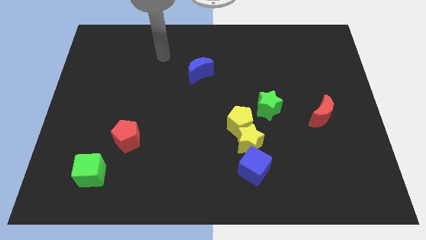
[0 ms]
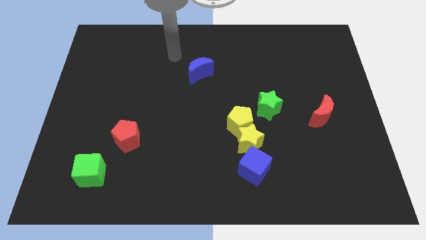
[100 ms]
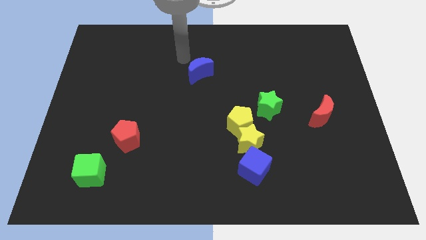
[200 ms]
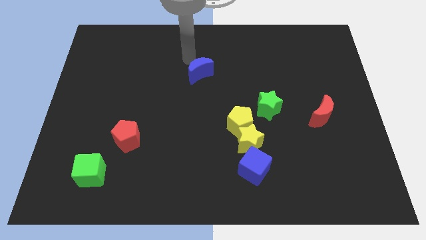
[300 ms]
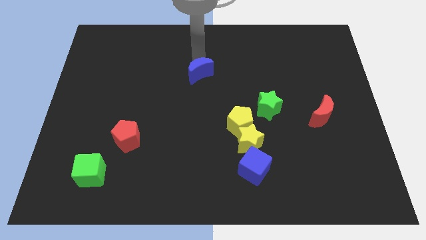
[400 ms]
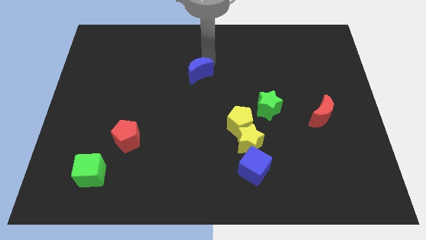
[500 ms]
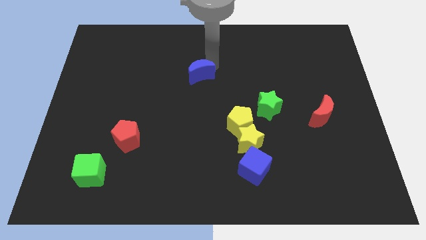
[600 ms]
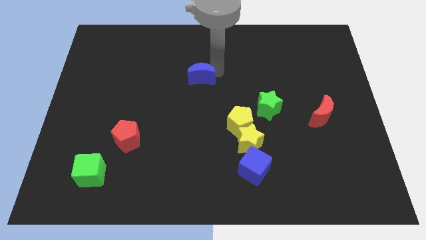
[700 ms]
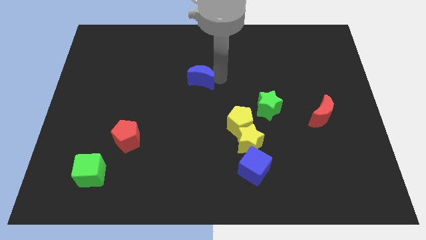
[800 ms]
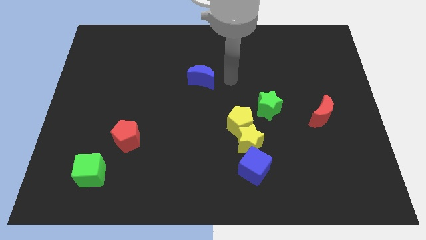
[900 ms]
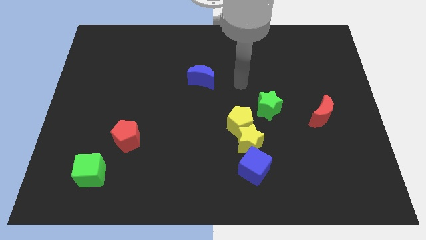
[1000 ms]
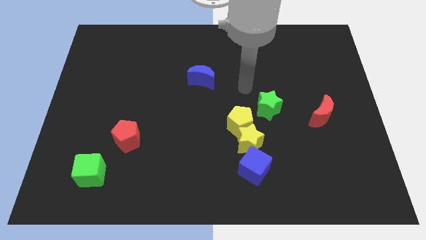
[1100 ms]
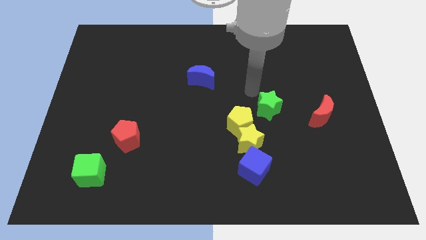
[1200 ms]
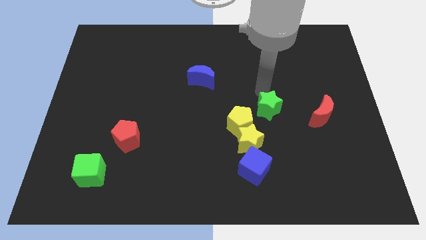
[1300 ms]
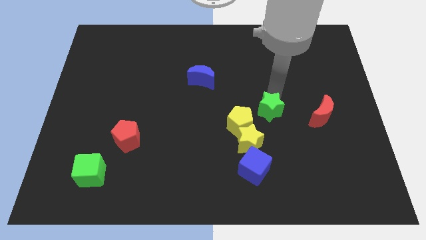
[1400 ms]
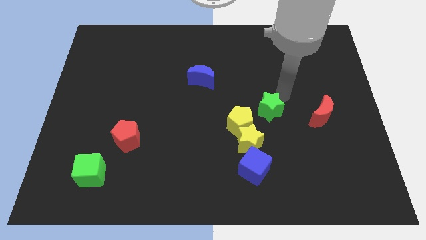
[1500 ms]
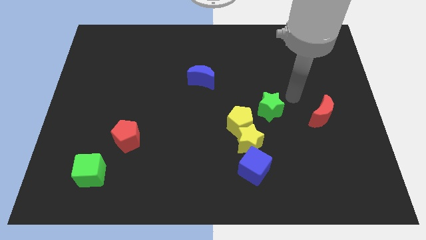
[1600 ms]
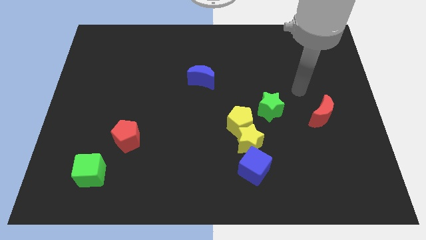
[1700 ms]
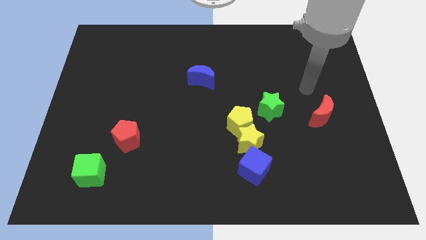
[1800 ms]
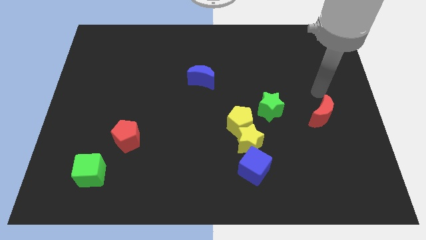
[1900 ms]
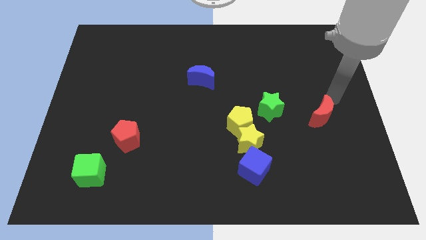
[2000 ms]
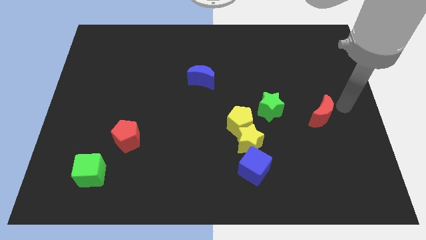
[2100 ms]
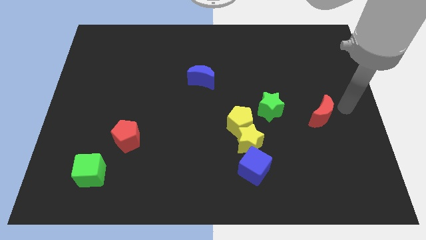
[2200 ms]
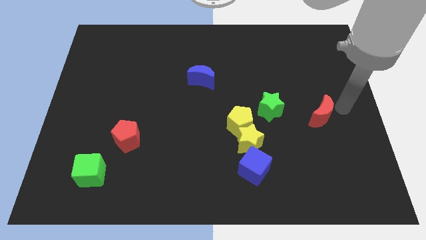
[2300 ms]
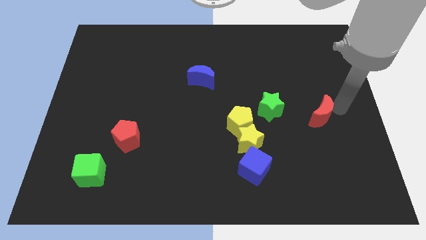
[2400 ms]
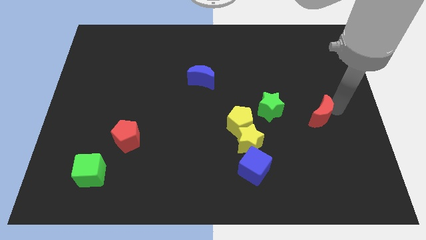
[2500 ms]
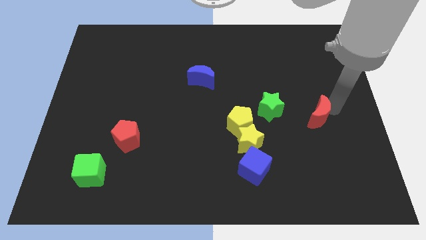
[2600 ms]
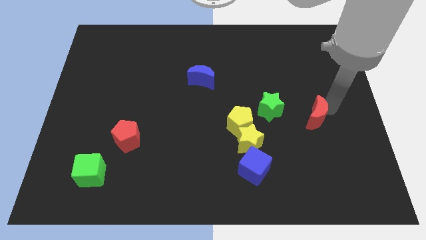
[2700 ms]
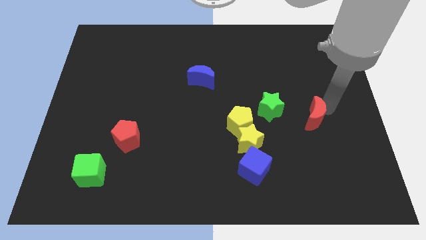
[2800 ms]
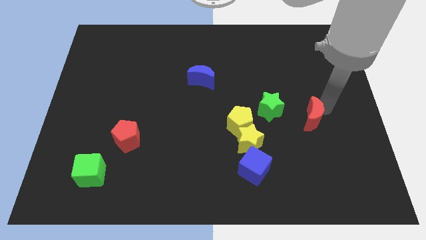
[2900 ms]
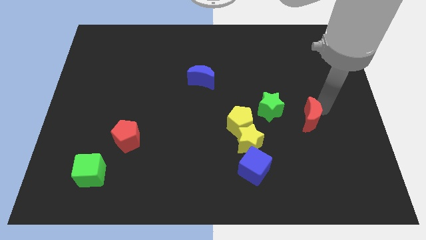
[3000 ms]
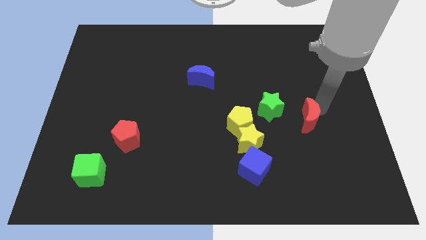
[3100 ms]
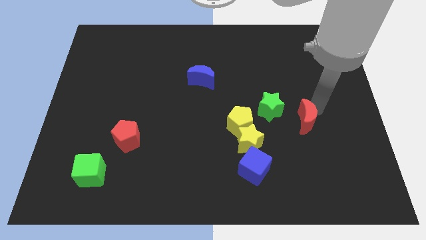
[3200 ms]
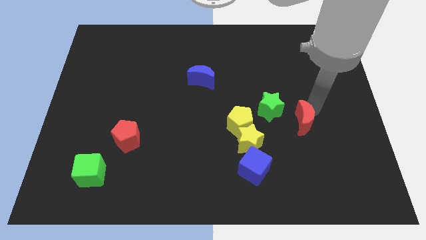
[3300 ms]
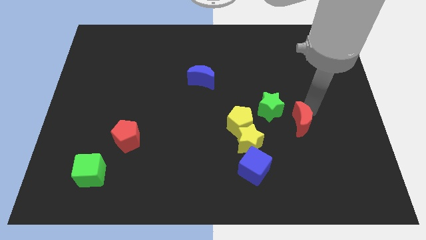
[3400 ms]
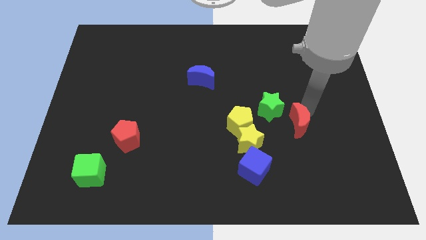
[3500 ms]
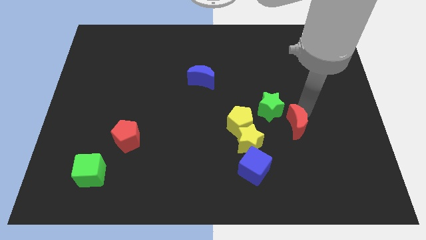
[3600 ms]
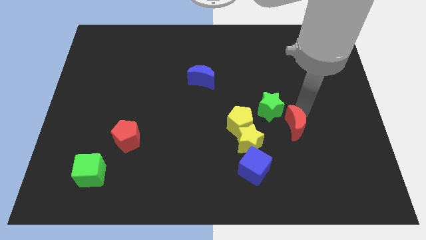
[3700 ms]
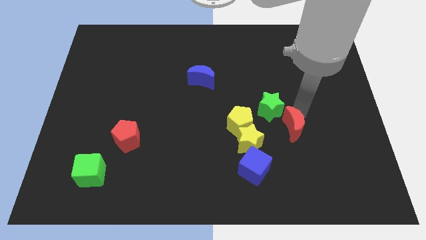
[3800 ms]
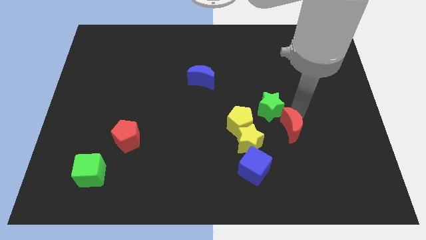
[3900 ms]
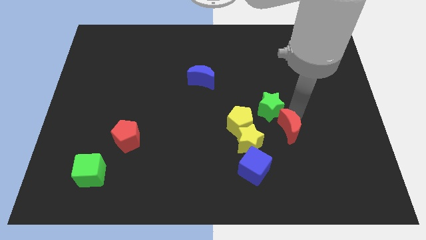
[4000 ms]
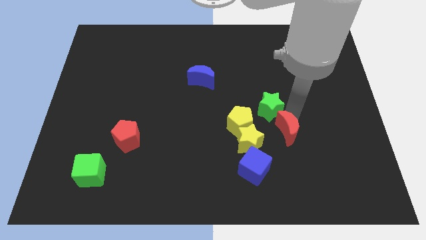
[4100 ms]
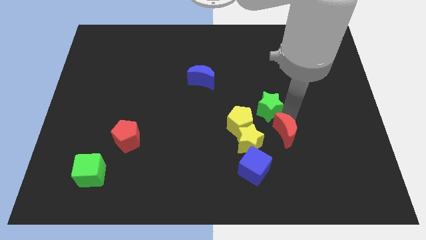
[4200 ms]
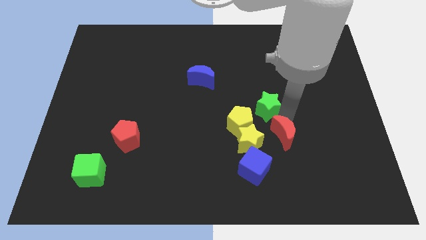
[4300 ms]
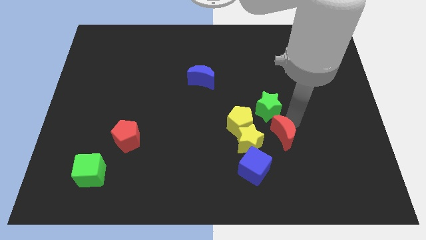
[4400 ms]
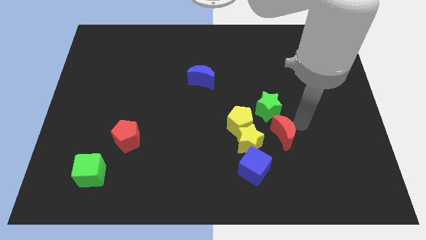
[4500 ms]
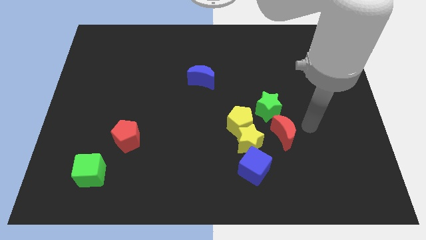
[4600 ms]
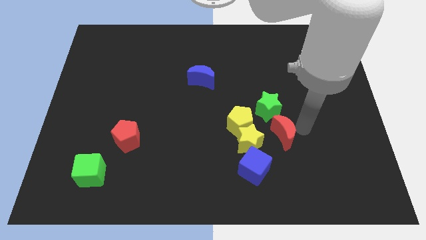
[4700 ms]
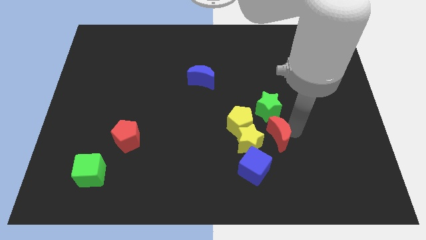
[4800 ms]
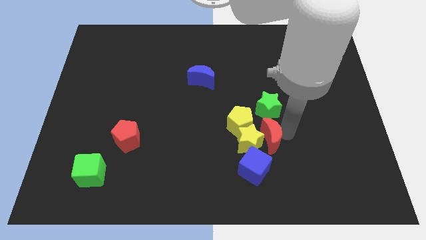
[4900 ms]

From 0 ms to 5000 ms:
put the red moon close to the yellow star

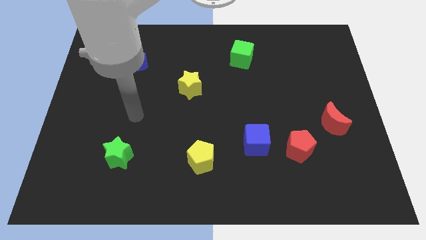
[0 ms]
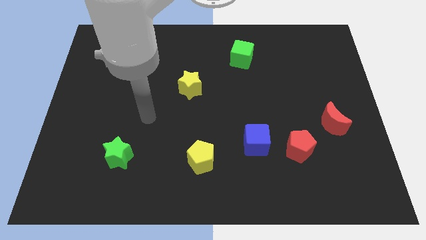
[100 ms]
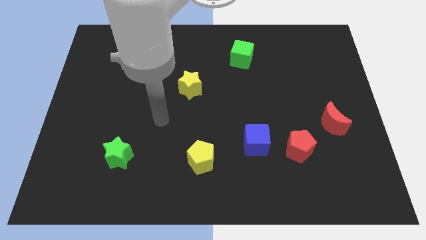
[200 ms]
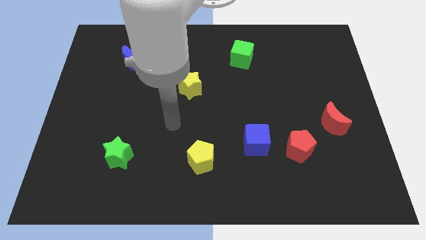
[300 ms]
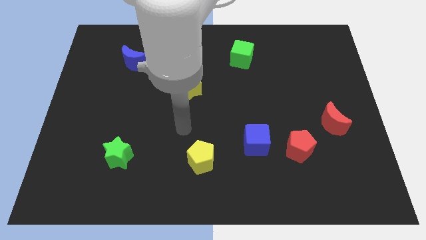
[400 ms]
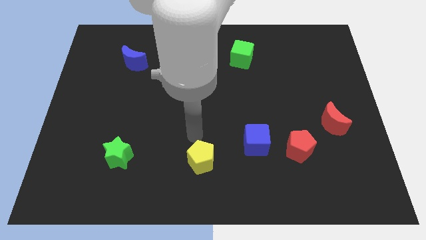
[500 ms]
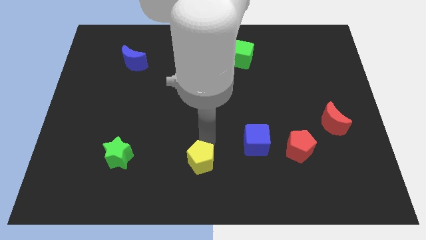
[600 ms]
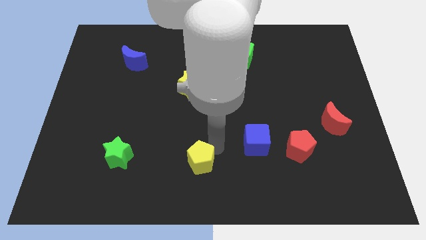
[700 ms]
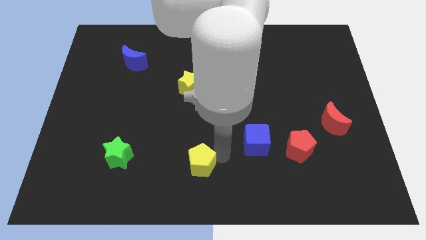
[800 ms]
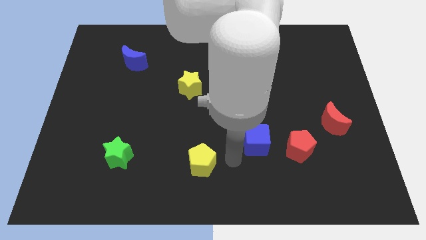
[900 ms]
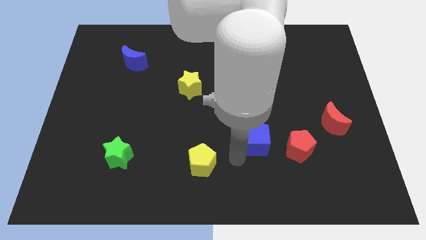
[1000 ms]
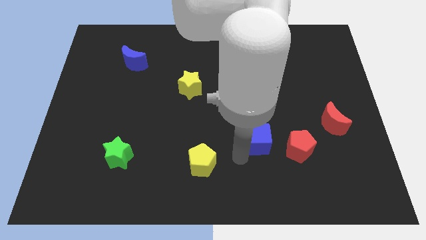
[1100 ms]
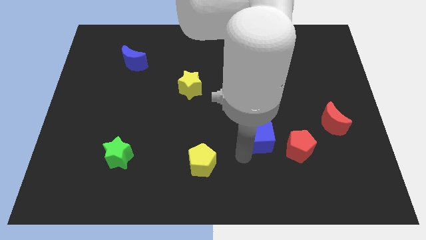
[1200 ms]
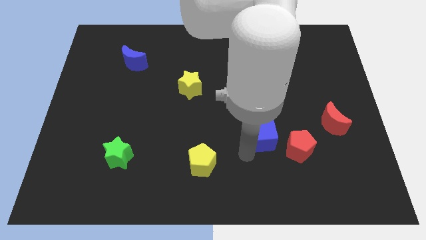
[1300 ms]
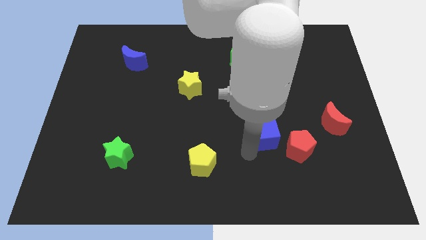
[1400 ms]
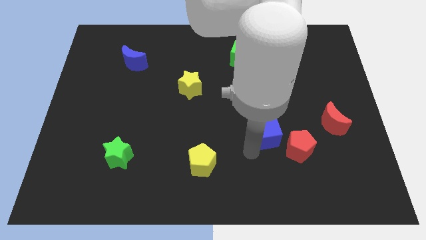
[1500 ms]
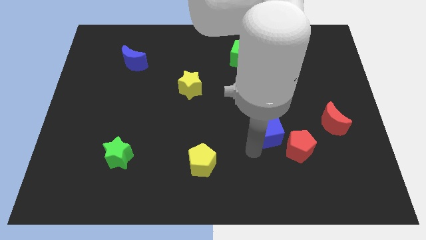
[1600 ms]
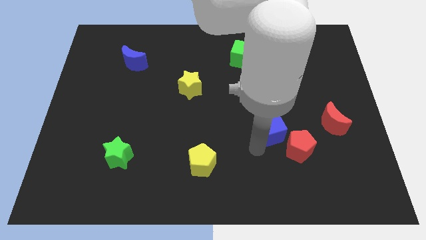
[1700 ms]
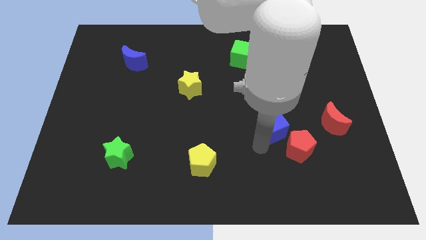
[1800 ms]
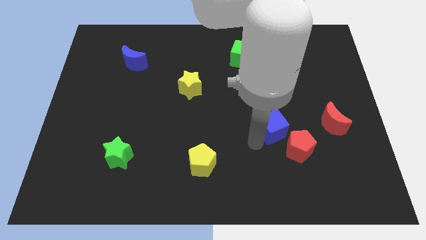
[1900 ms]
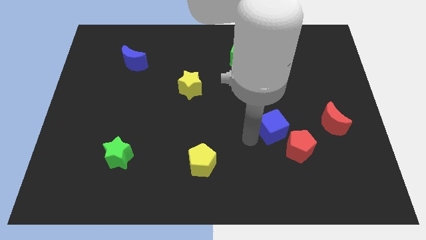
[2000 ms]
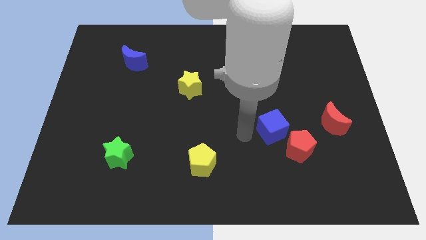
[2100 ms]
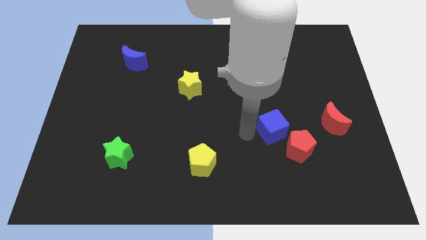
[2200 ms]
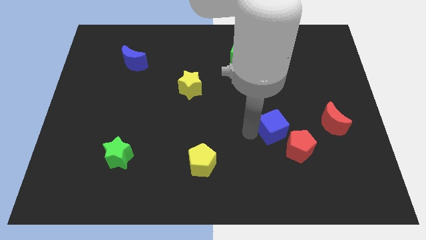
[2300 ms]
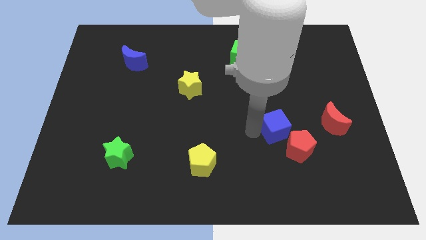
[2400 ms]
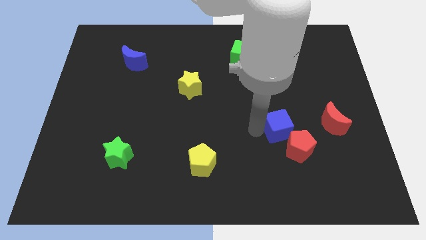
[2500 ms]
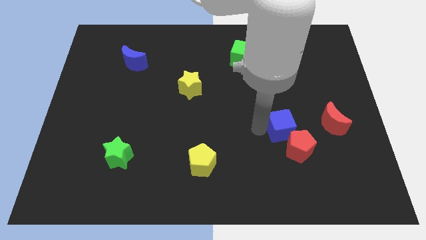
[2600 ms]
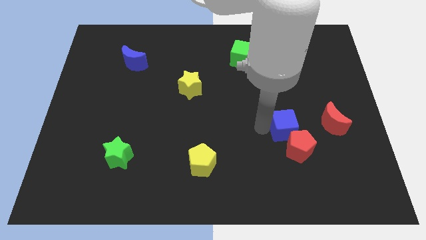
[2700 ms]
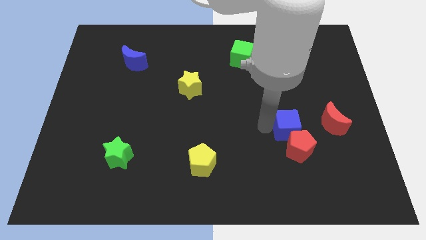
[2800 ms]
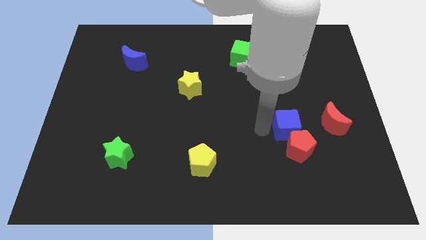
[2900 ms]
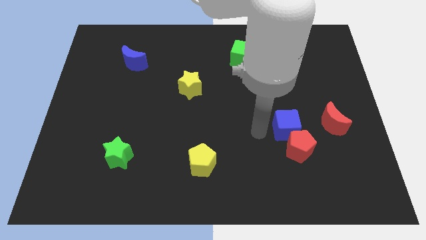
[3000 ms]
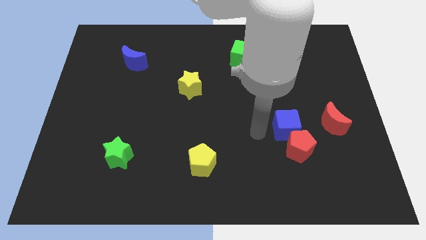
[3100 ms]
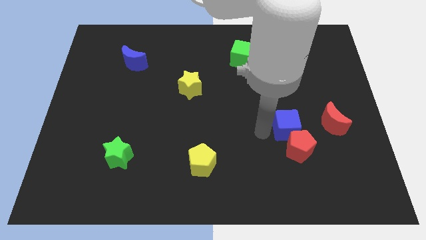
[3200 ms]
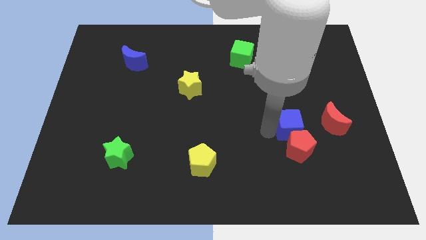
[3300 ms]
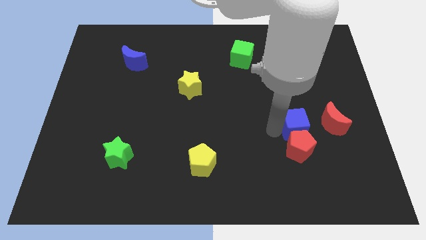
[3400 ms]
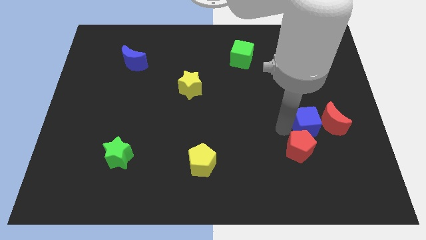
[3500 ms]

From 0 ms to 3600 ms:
put the blue cube close to the red moon
